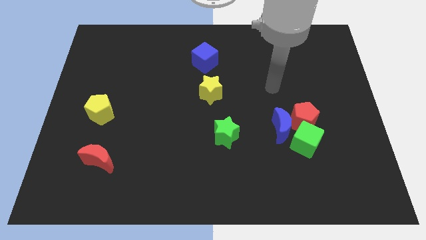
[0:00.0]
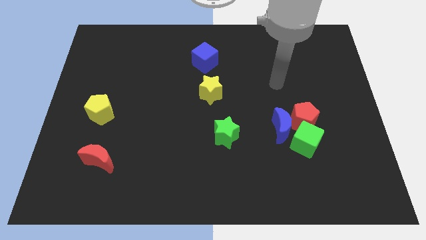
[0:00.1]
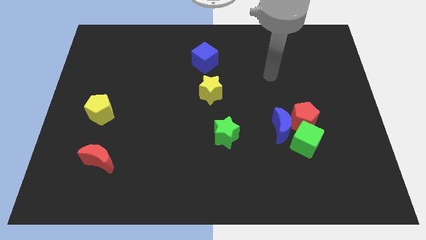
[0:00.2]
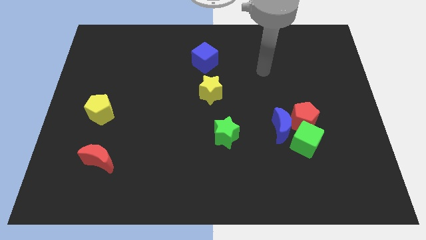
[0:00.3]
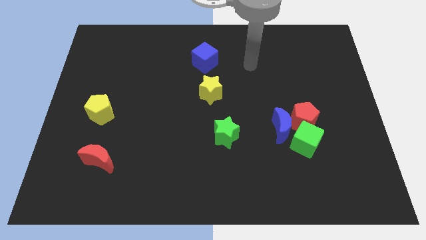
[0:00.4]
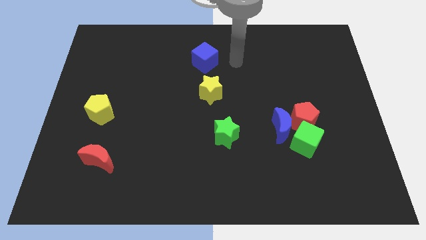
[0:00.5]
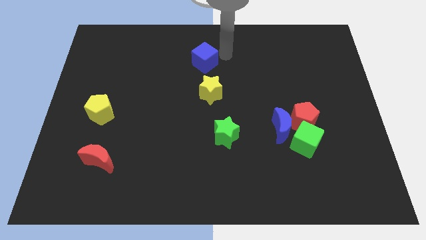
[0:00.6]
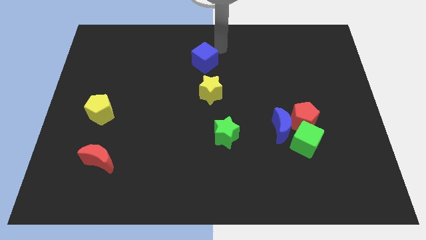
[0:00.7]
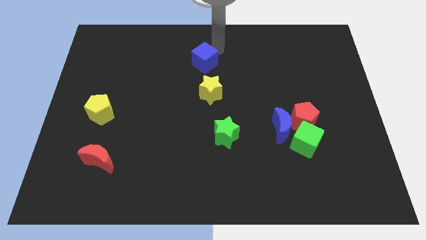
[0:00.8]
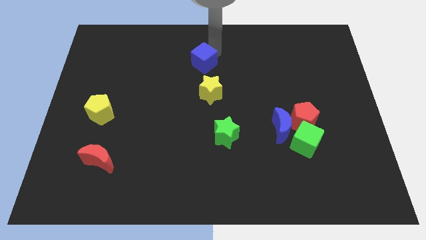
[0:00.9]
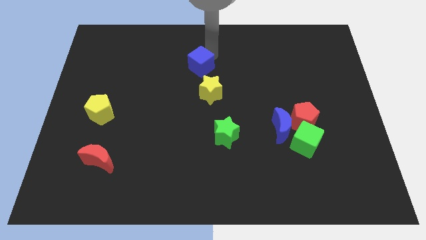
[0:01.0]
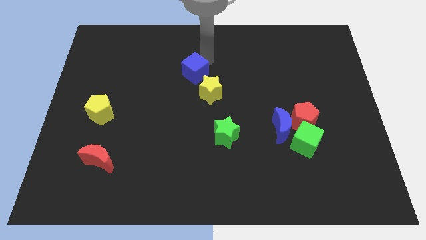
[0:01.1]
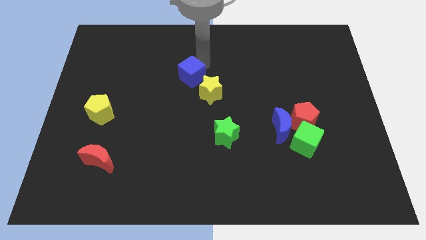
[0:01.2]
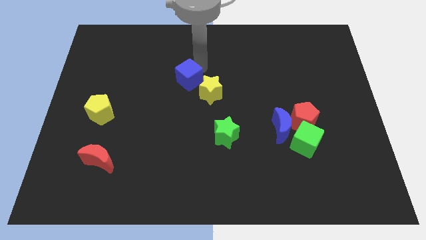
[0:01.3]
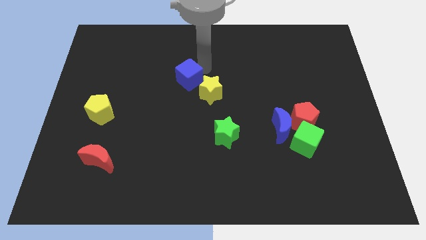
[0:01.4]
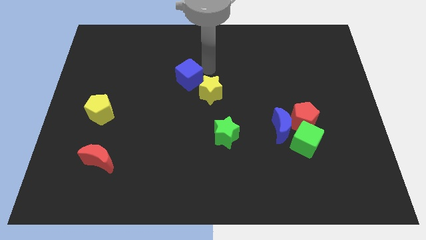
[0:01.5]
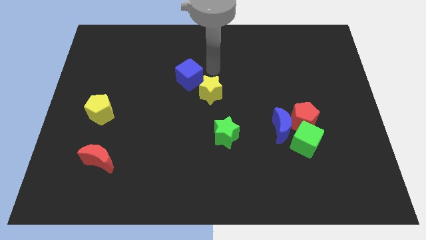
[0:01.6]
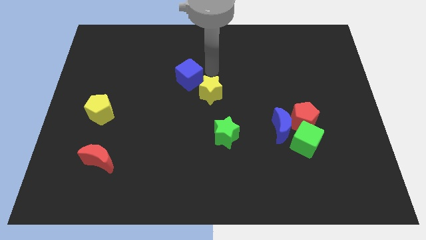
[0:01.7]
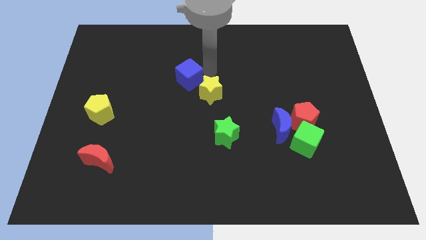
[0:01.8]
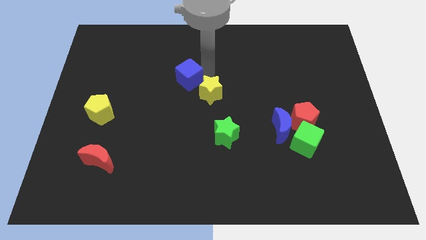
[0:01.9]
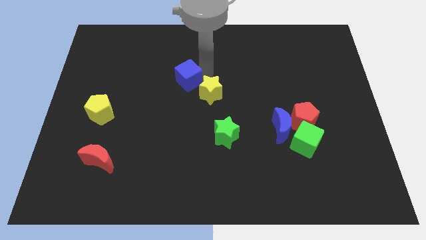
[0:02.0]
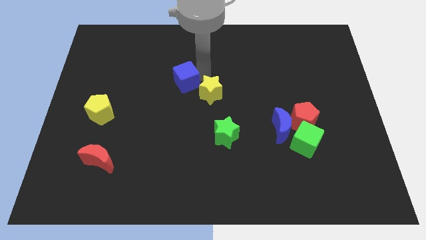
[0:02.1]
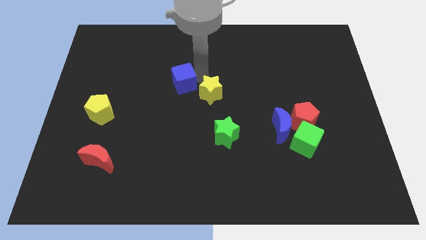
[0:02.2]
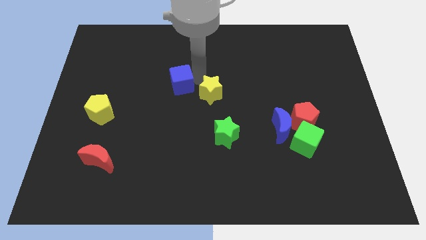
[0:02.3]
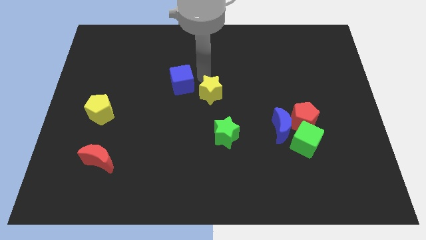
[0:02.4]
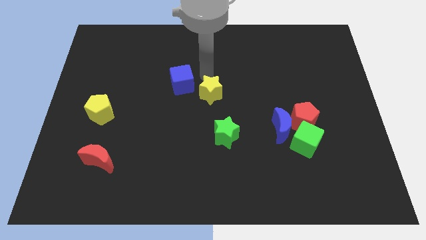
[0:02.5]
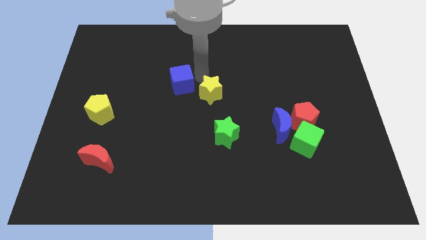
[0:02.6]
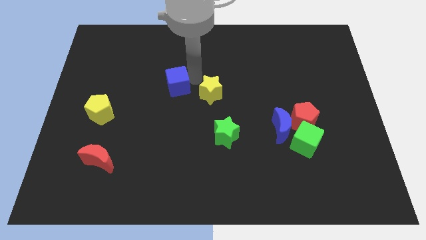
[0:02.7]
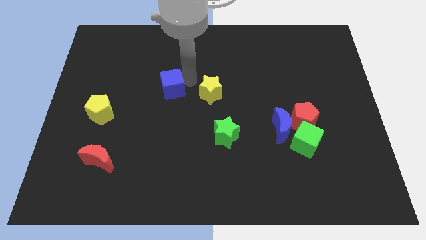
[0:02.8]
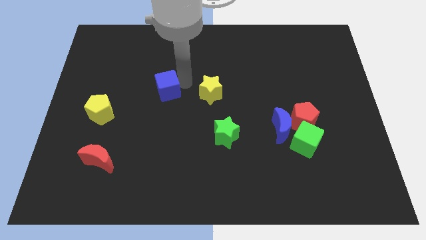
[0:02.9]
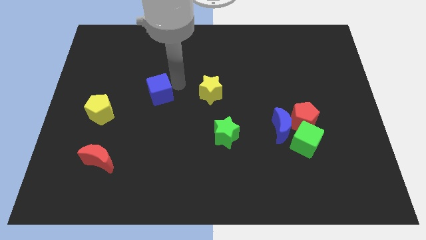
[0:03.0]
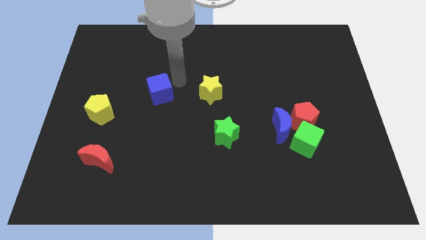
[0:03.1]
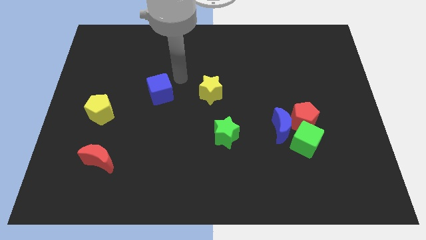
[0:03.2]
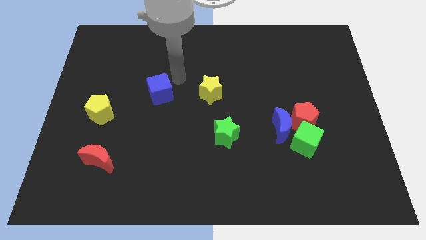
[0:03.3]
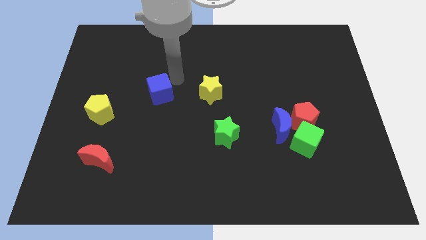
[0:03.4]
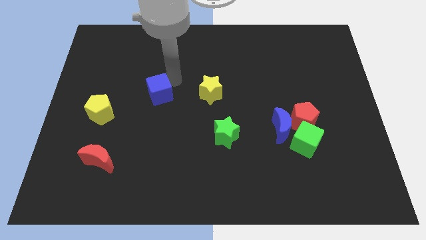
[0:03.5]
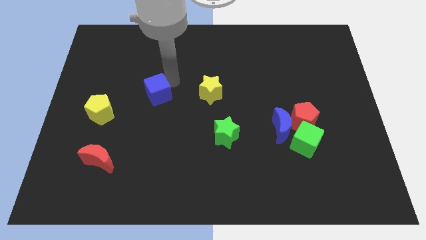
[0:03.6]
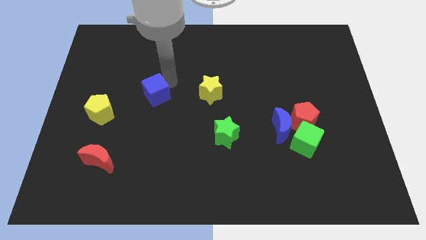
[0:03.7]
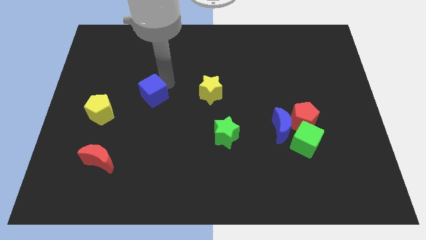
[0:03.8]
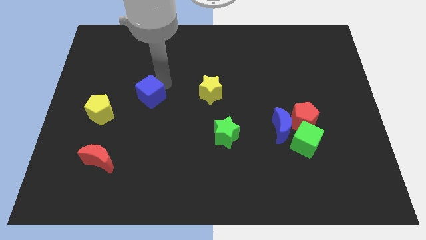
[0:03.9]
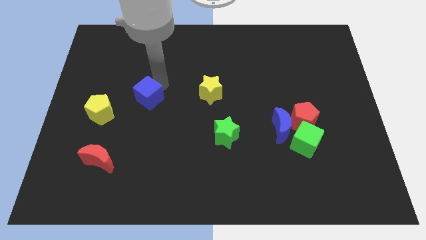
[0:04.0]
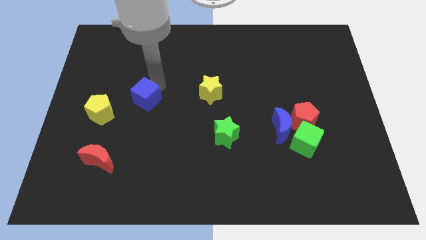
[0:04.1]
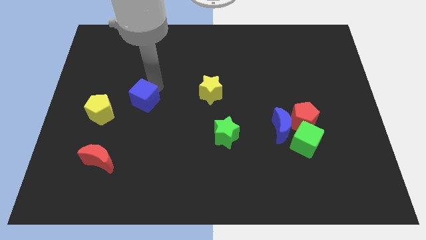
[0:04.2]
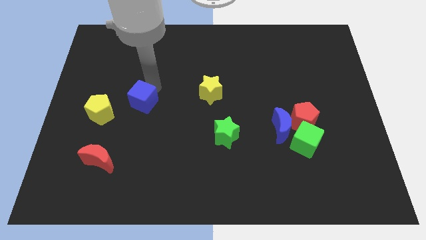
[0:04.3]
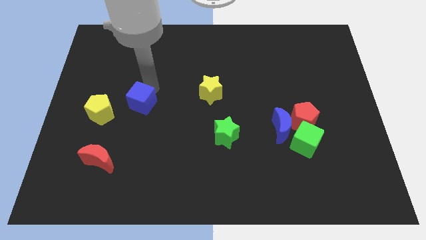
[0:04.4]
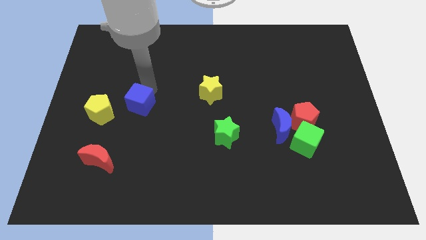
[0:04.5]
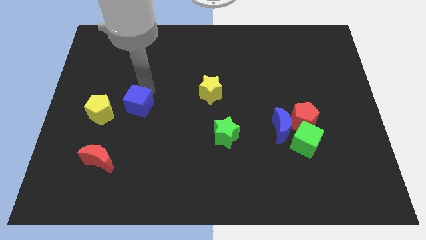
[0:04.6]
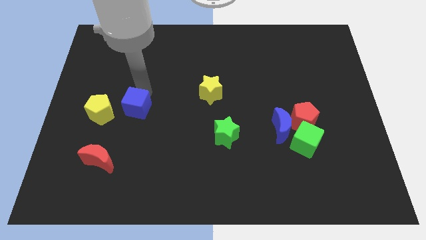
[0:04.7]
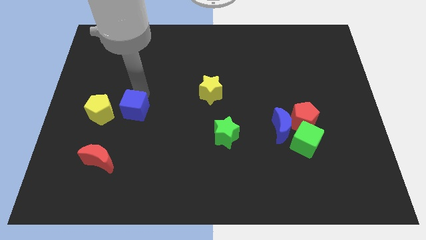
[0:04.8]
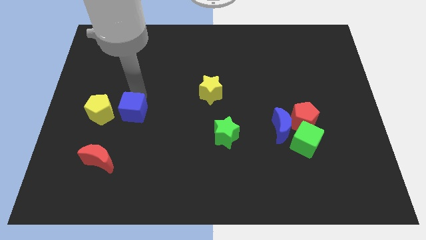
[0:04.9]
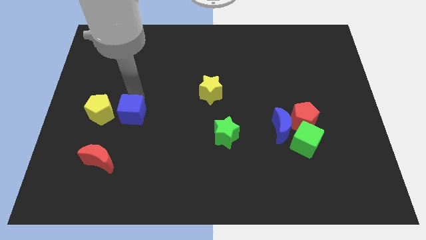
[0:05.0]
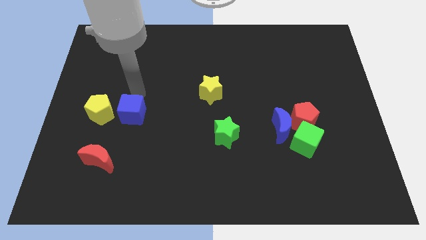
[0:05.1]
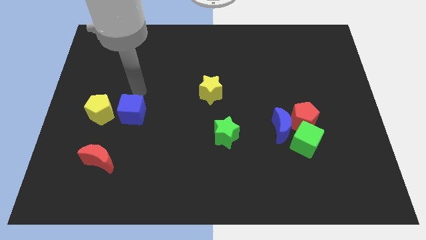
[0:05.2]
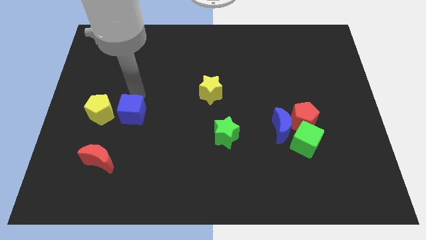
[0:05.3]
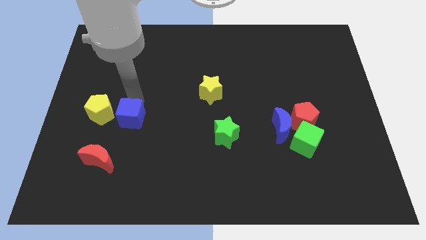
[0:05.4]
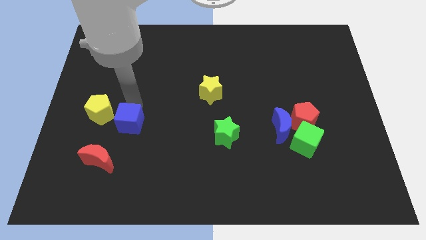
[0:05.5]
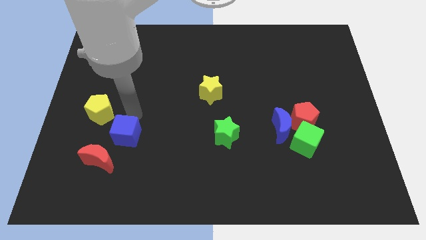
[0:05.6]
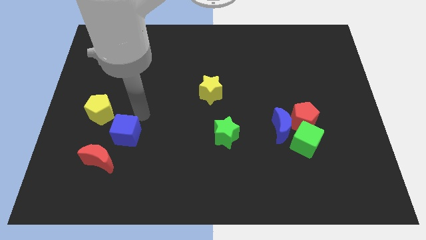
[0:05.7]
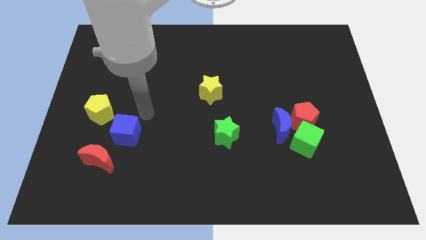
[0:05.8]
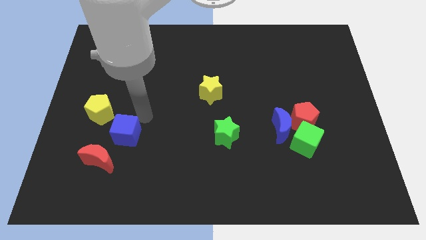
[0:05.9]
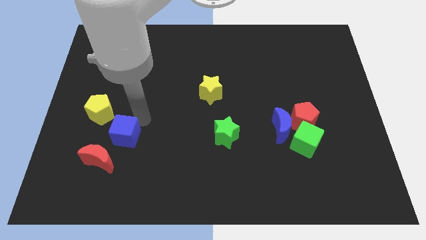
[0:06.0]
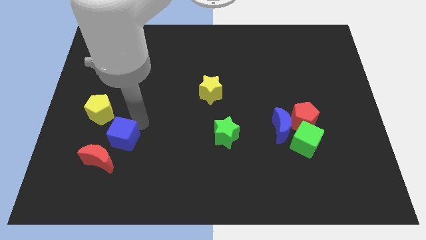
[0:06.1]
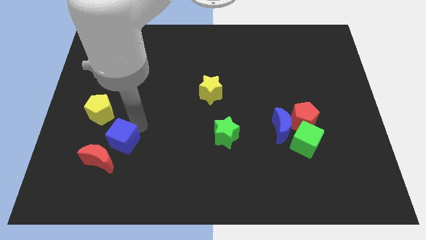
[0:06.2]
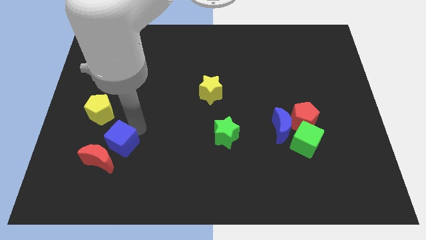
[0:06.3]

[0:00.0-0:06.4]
slide the blue cube next to the red moon

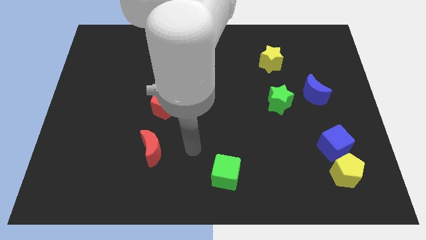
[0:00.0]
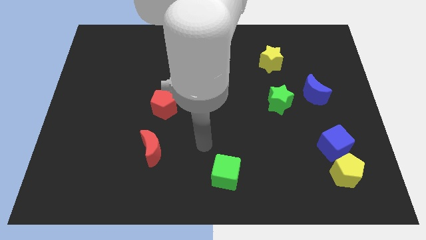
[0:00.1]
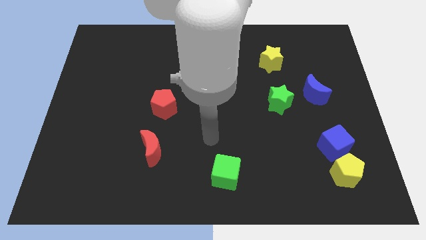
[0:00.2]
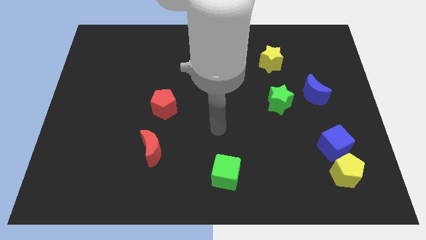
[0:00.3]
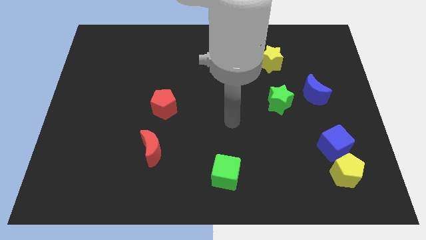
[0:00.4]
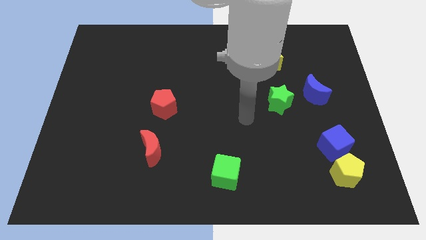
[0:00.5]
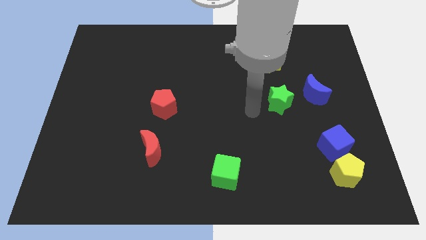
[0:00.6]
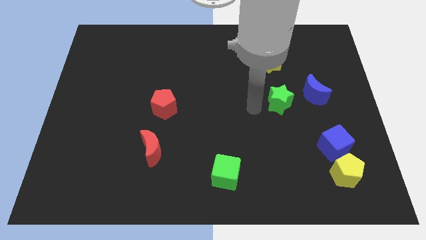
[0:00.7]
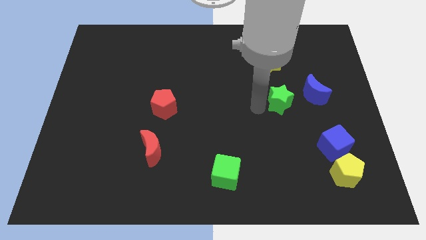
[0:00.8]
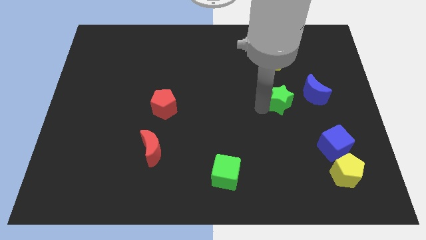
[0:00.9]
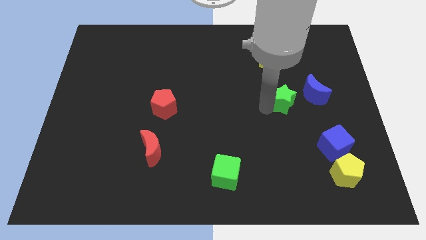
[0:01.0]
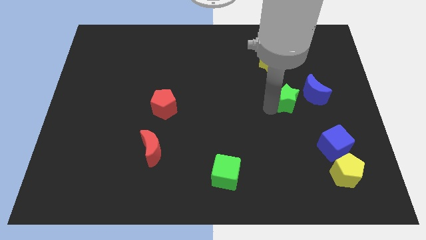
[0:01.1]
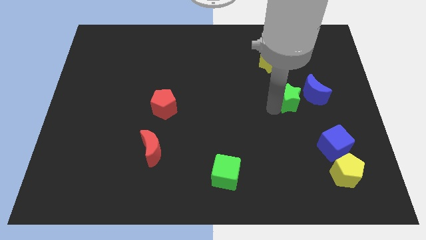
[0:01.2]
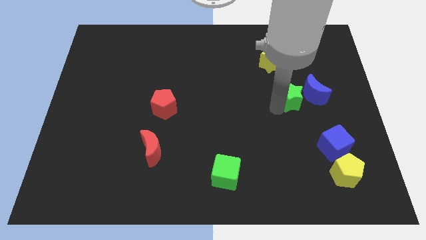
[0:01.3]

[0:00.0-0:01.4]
push the green star next to the blue moon

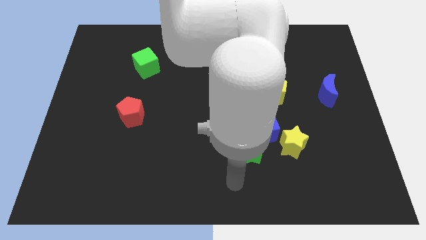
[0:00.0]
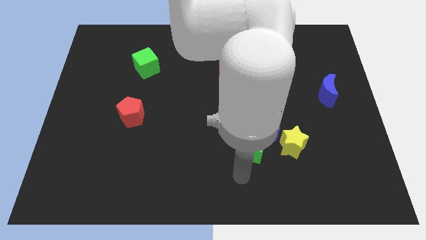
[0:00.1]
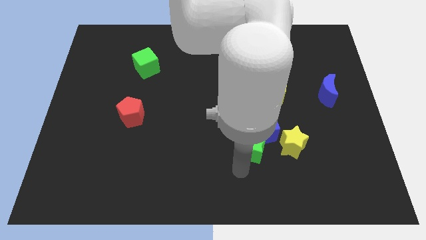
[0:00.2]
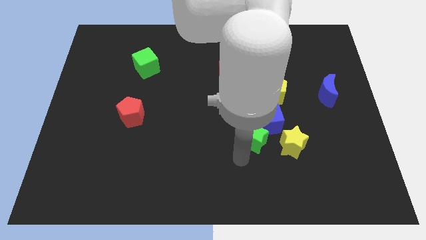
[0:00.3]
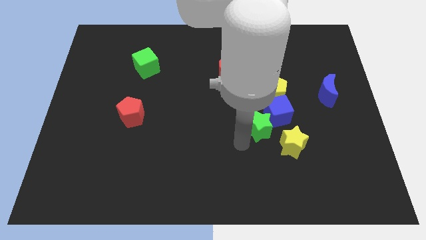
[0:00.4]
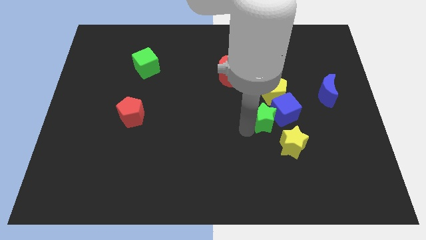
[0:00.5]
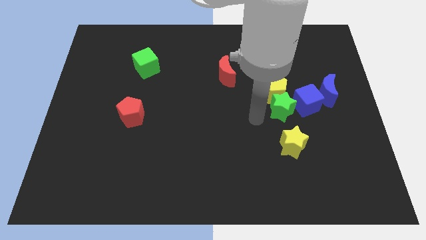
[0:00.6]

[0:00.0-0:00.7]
slide the blue cube towards the blue moon
